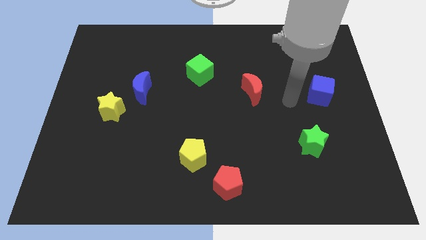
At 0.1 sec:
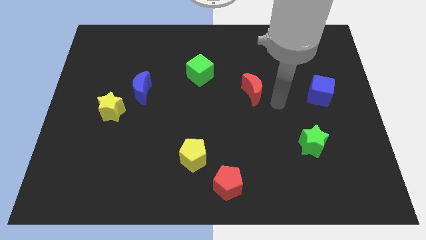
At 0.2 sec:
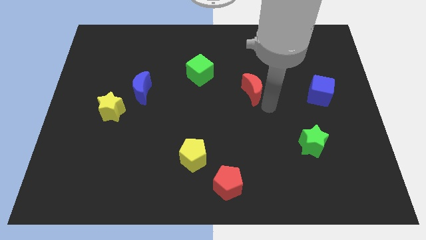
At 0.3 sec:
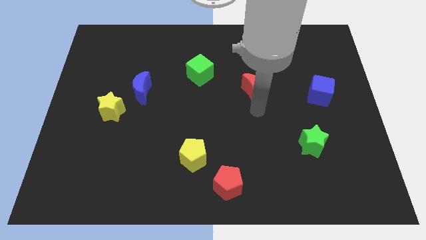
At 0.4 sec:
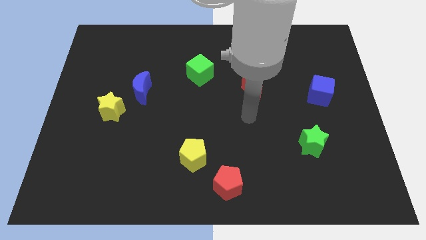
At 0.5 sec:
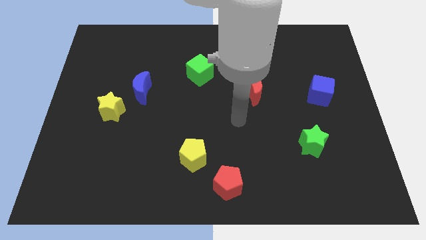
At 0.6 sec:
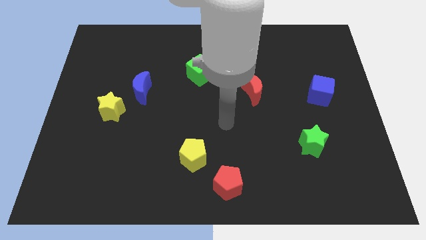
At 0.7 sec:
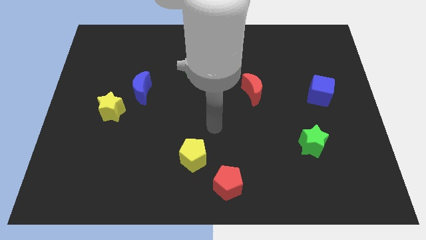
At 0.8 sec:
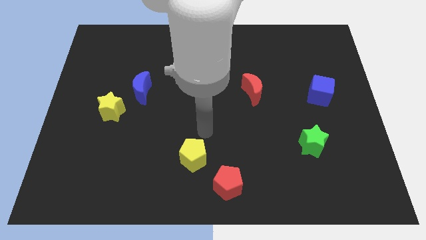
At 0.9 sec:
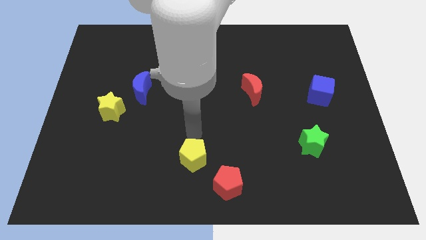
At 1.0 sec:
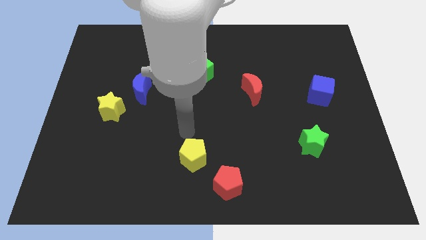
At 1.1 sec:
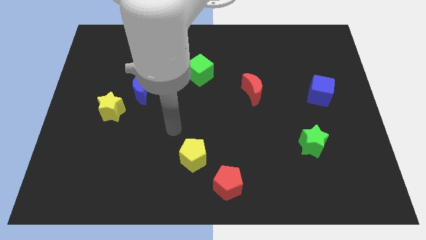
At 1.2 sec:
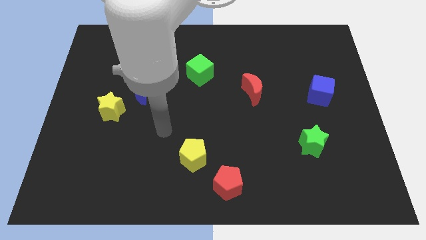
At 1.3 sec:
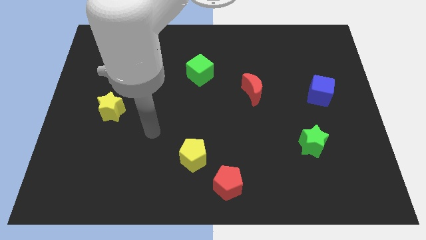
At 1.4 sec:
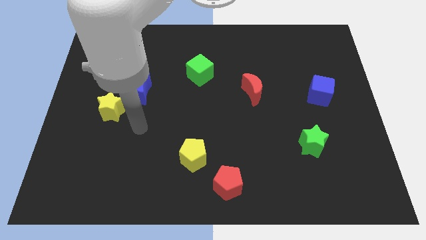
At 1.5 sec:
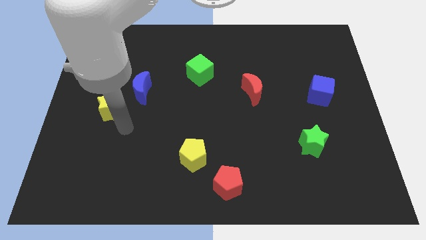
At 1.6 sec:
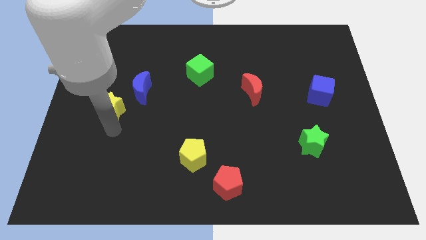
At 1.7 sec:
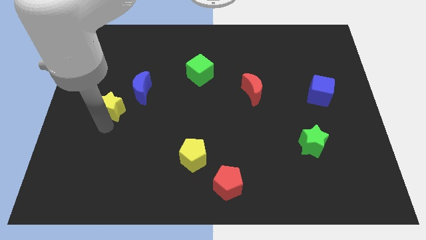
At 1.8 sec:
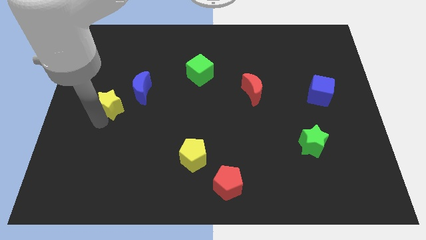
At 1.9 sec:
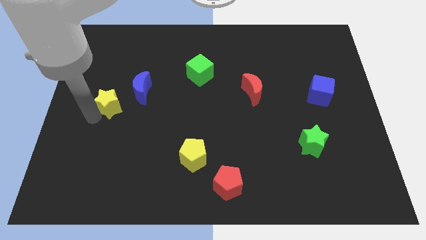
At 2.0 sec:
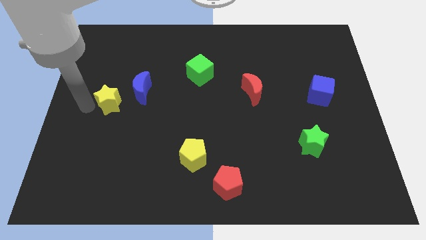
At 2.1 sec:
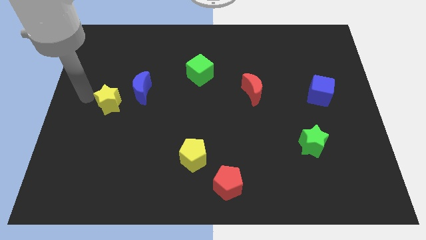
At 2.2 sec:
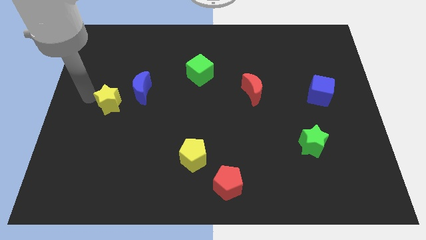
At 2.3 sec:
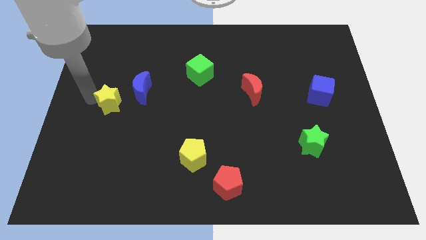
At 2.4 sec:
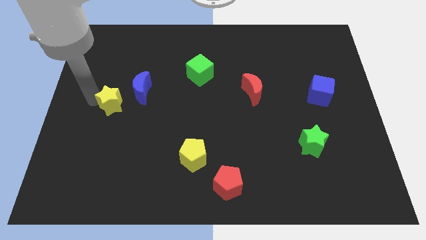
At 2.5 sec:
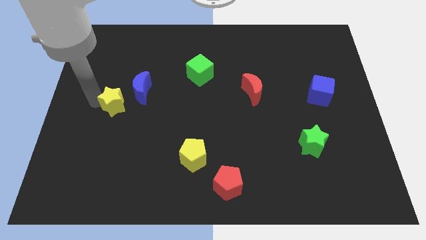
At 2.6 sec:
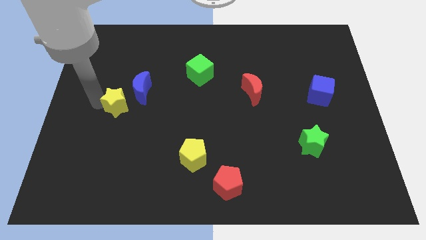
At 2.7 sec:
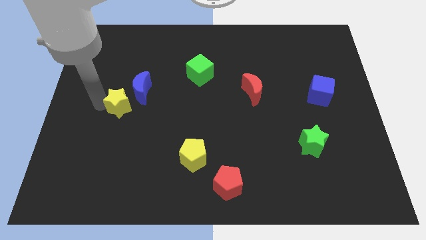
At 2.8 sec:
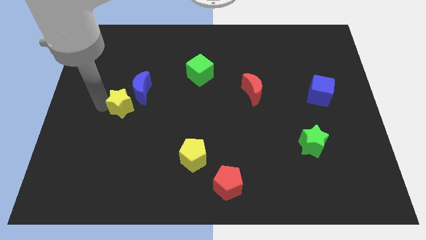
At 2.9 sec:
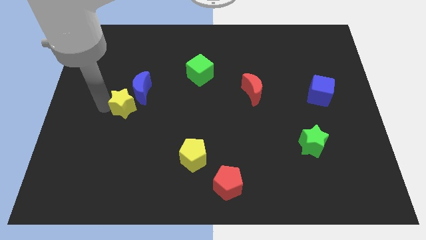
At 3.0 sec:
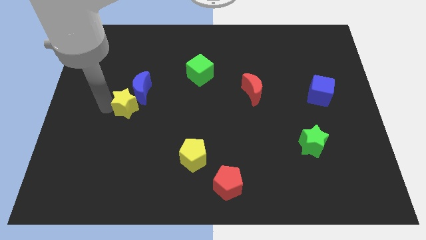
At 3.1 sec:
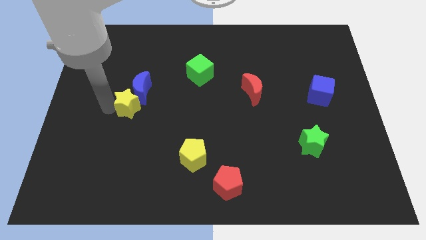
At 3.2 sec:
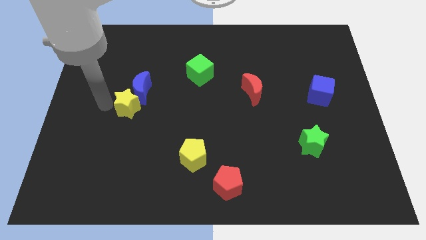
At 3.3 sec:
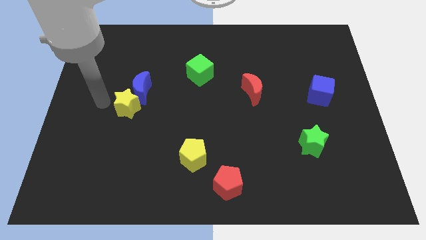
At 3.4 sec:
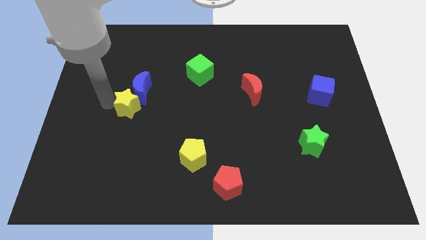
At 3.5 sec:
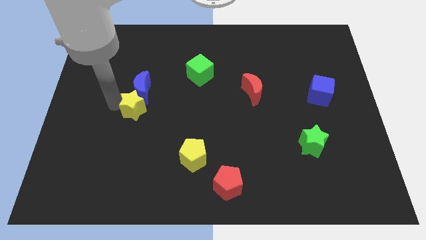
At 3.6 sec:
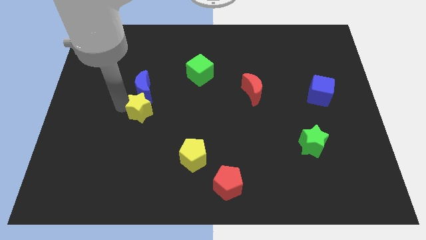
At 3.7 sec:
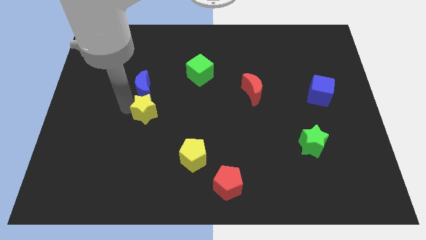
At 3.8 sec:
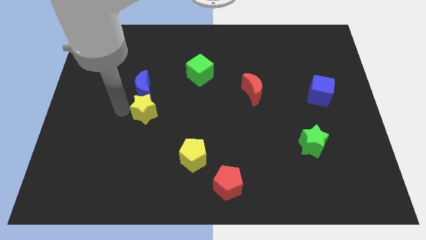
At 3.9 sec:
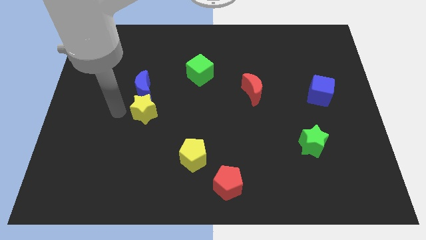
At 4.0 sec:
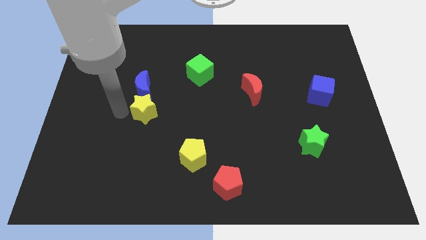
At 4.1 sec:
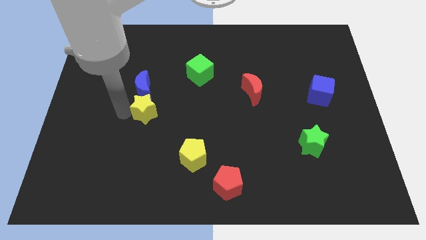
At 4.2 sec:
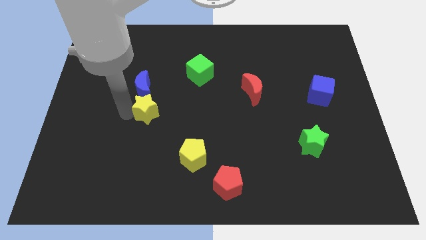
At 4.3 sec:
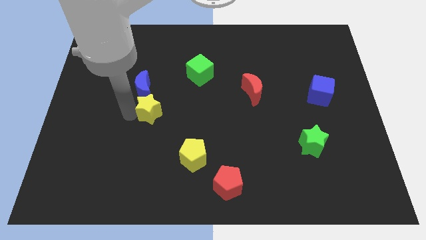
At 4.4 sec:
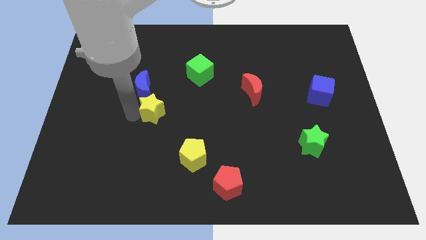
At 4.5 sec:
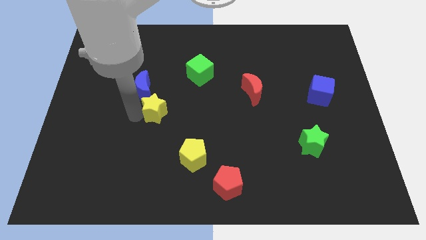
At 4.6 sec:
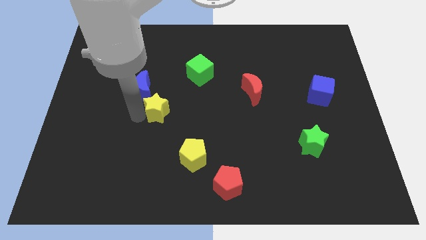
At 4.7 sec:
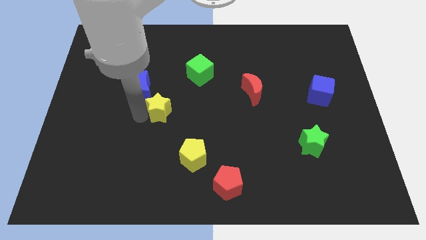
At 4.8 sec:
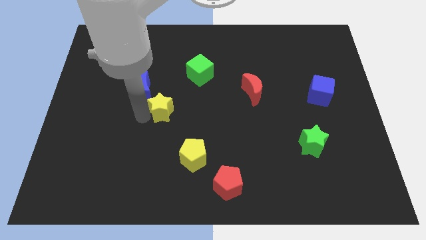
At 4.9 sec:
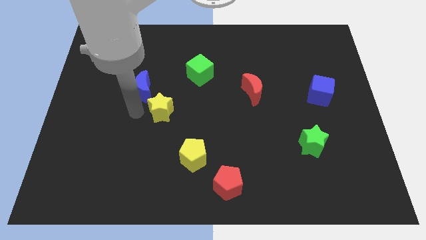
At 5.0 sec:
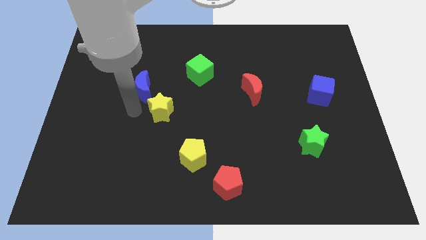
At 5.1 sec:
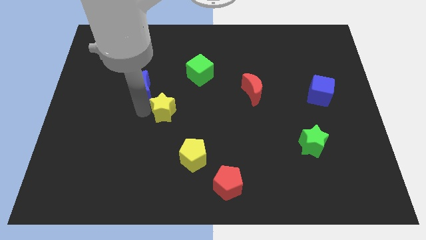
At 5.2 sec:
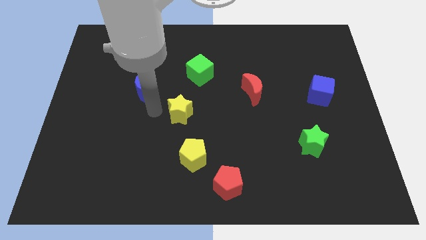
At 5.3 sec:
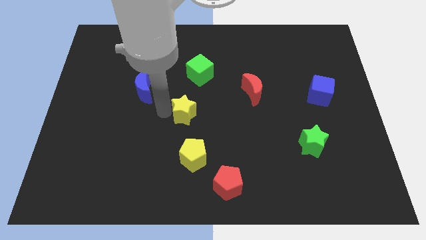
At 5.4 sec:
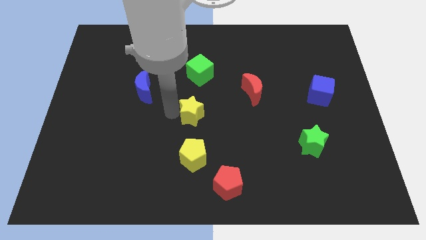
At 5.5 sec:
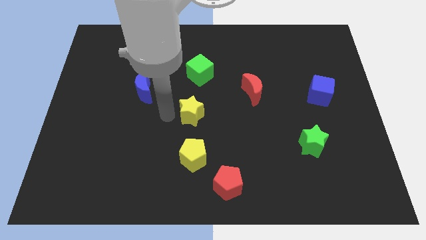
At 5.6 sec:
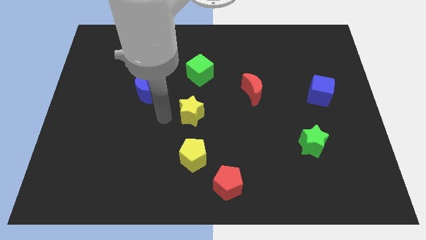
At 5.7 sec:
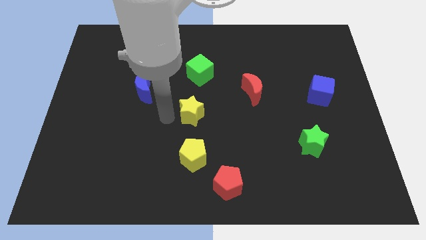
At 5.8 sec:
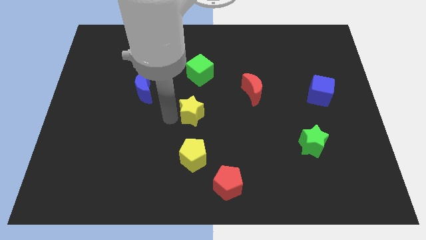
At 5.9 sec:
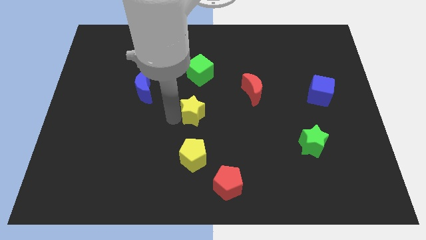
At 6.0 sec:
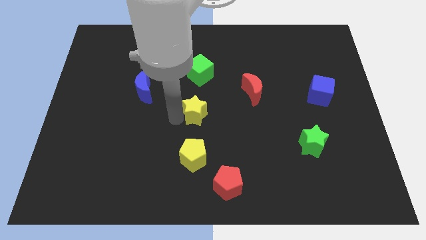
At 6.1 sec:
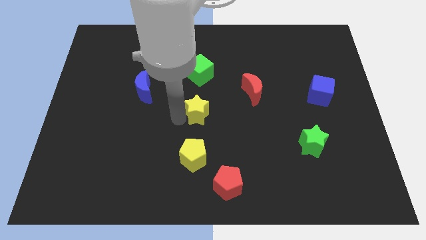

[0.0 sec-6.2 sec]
push the yellow star right

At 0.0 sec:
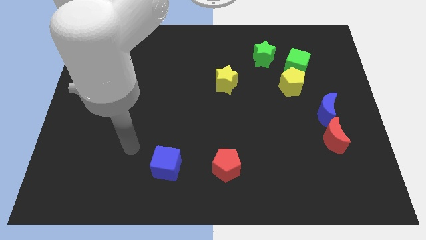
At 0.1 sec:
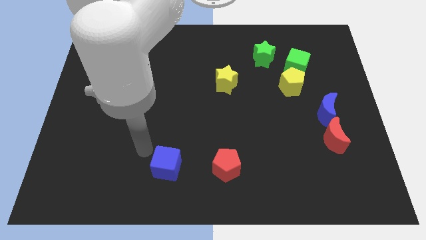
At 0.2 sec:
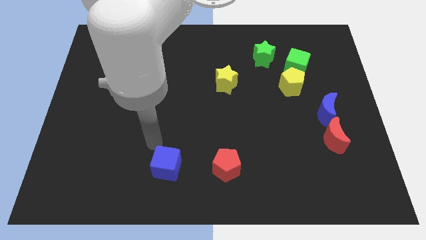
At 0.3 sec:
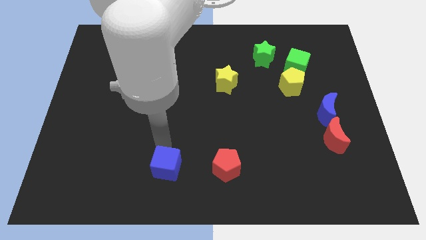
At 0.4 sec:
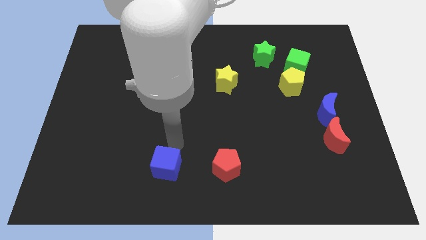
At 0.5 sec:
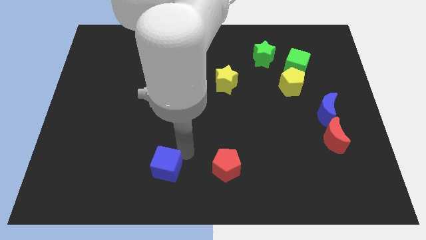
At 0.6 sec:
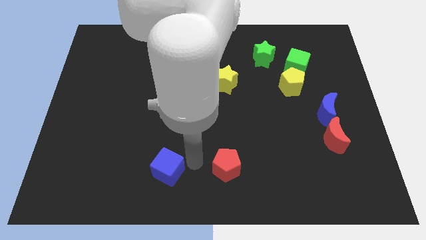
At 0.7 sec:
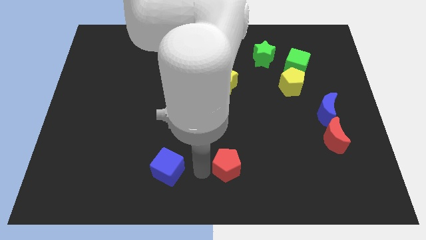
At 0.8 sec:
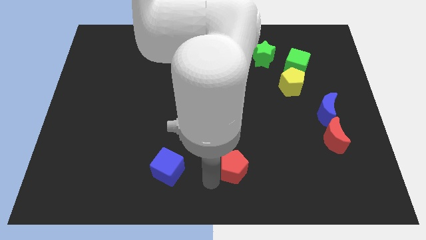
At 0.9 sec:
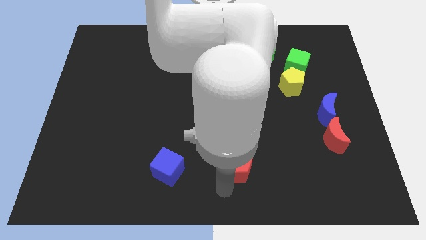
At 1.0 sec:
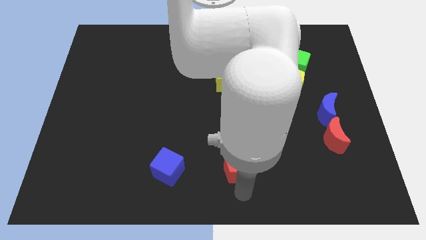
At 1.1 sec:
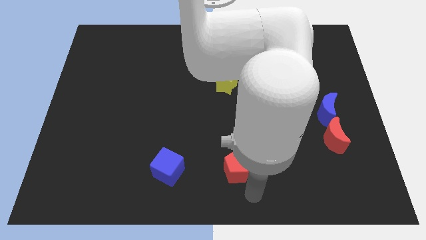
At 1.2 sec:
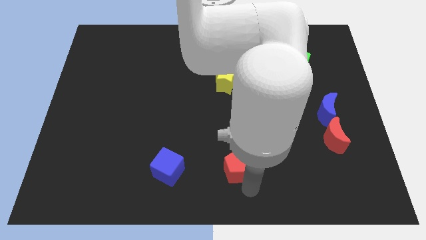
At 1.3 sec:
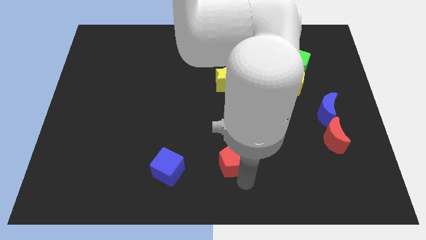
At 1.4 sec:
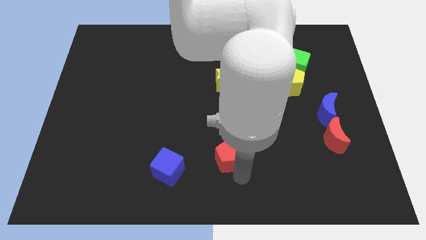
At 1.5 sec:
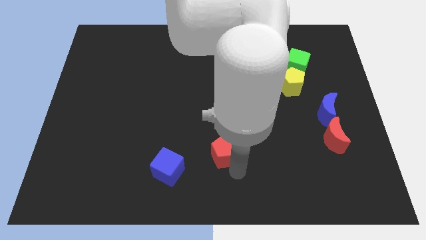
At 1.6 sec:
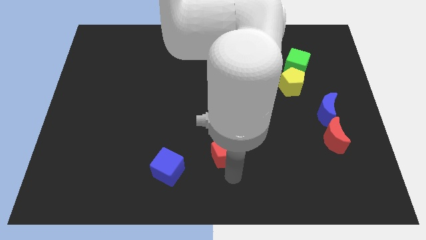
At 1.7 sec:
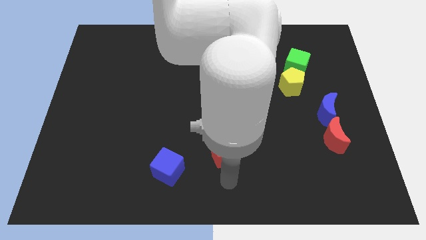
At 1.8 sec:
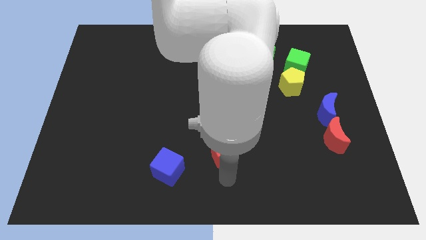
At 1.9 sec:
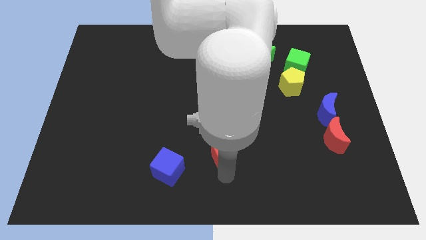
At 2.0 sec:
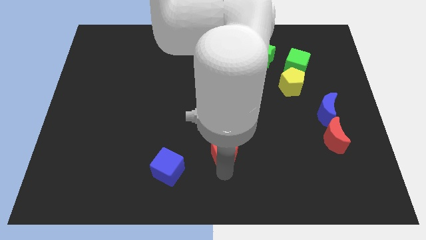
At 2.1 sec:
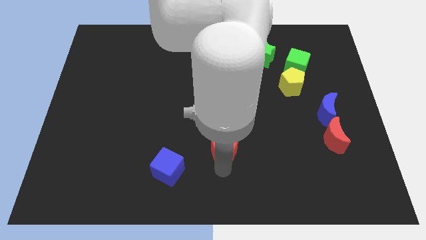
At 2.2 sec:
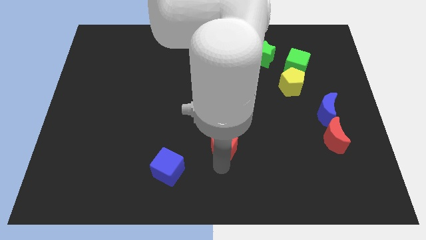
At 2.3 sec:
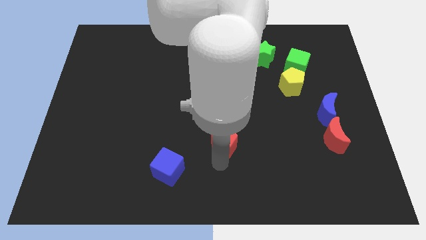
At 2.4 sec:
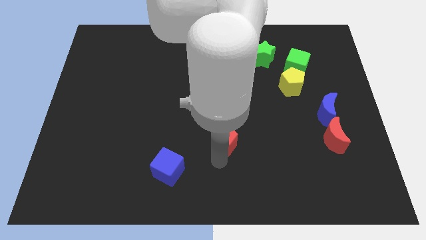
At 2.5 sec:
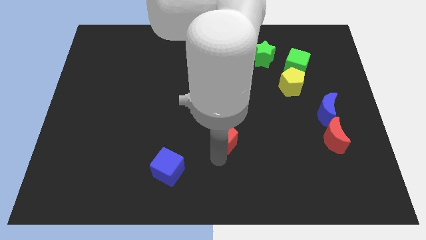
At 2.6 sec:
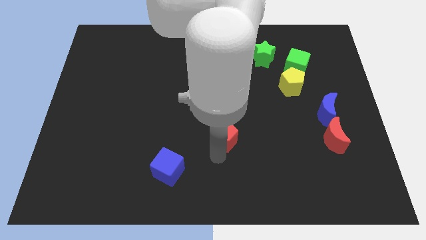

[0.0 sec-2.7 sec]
slightly move the red pentagon upwards
